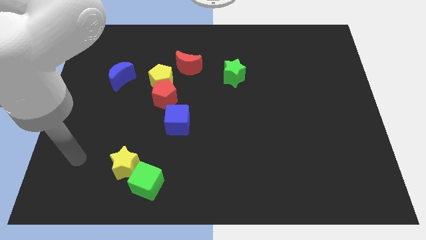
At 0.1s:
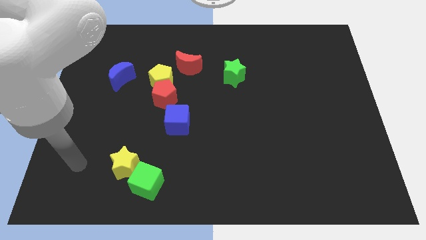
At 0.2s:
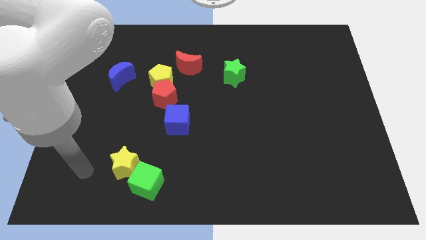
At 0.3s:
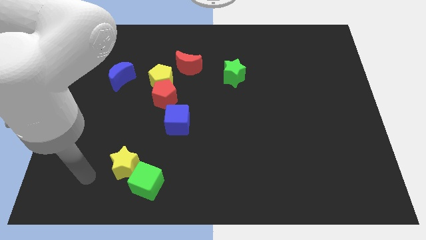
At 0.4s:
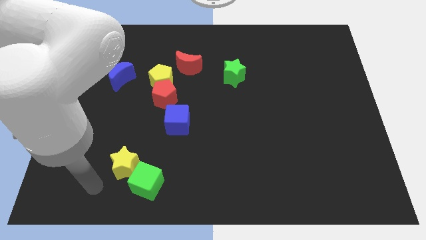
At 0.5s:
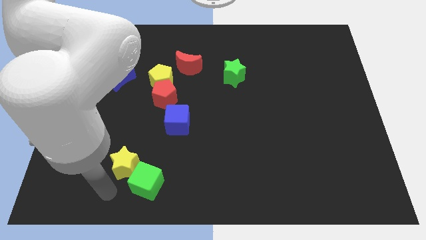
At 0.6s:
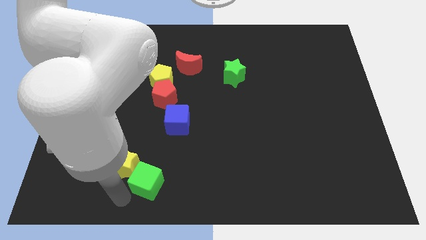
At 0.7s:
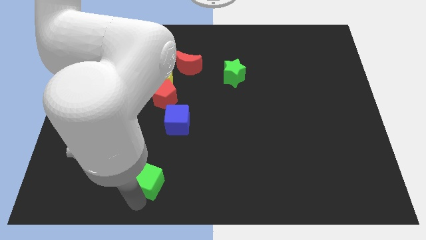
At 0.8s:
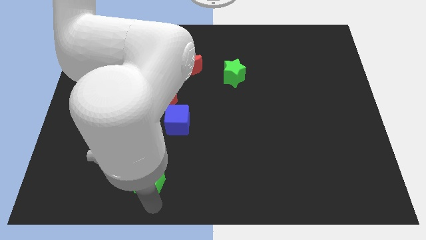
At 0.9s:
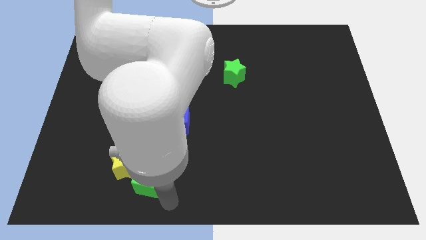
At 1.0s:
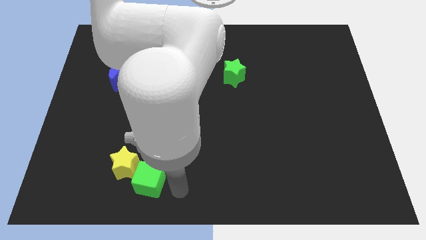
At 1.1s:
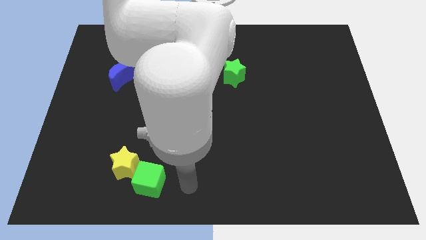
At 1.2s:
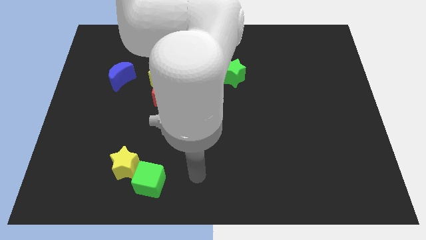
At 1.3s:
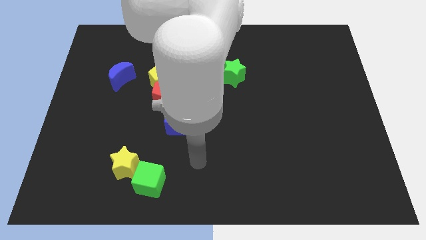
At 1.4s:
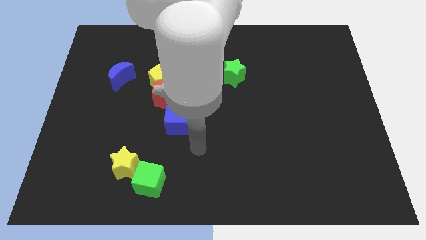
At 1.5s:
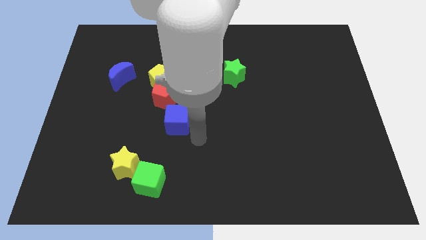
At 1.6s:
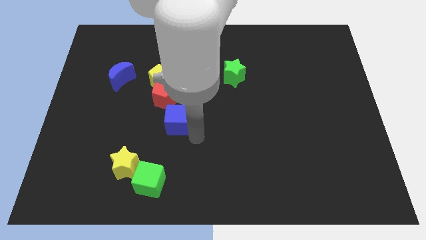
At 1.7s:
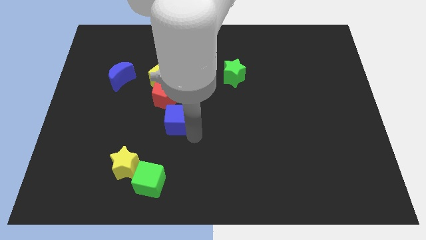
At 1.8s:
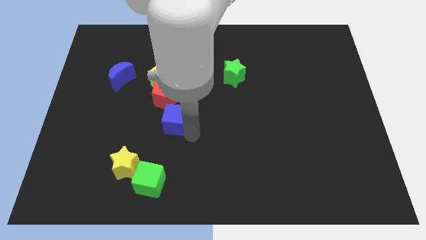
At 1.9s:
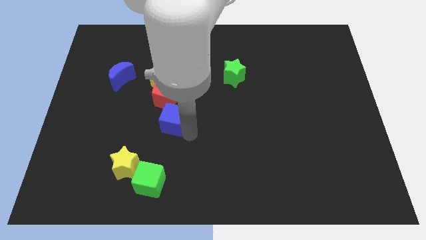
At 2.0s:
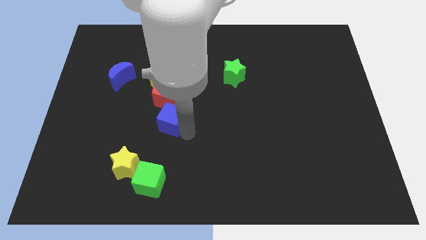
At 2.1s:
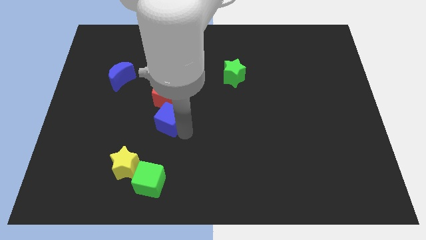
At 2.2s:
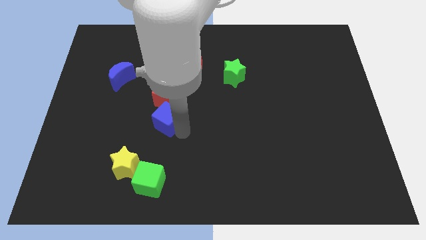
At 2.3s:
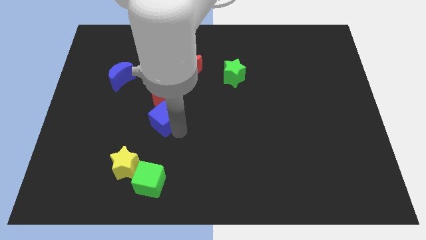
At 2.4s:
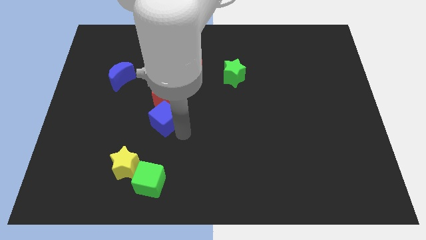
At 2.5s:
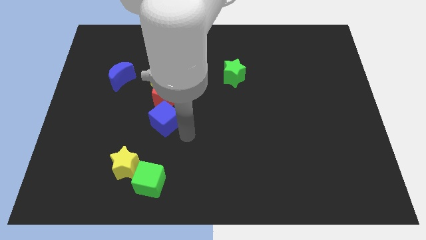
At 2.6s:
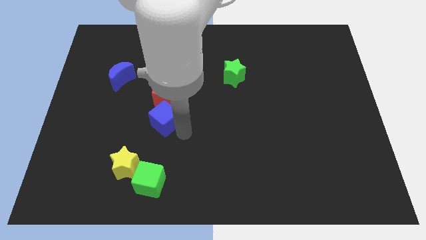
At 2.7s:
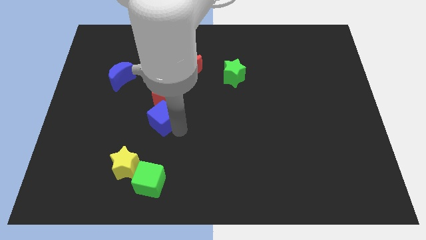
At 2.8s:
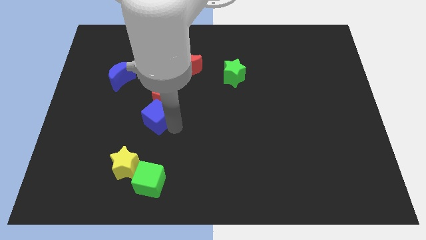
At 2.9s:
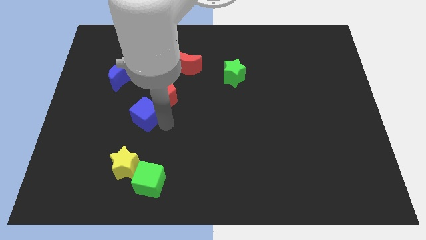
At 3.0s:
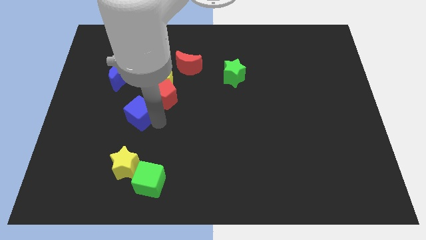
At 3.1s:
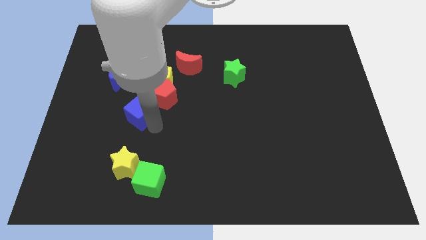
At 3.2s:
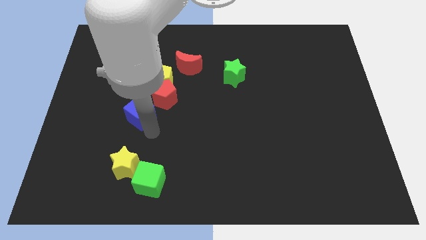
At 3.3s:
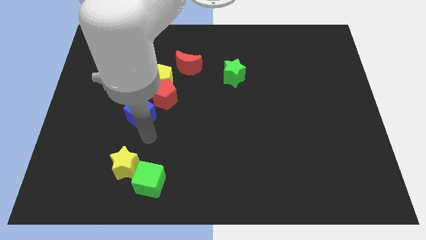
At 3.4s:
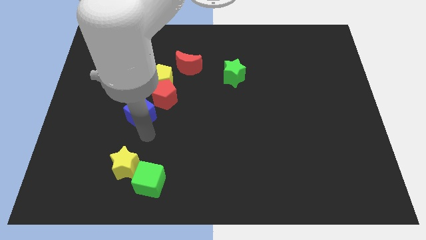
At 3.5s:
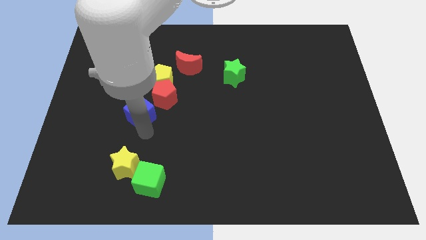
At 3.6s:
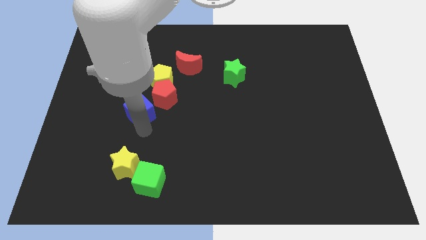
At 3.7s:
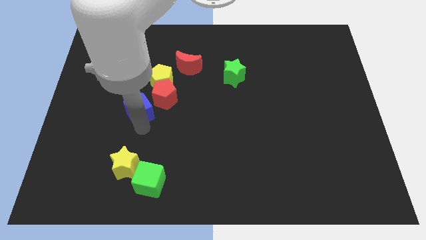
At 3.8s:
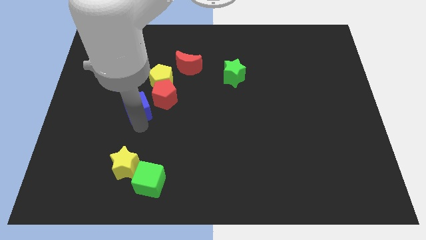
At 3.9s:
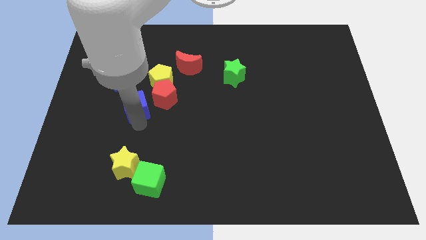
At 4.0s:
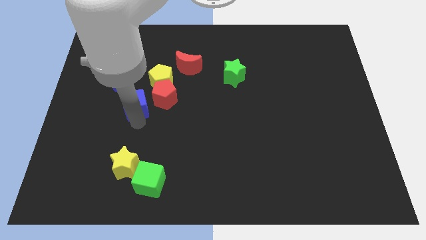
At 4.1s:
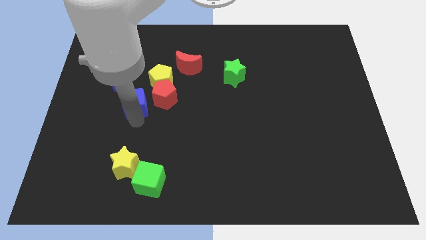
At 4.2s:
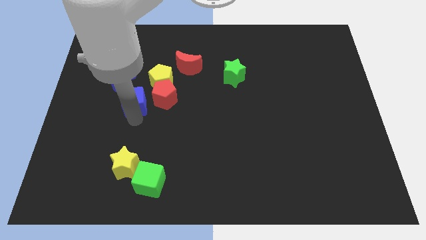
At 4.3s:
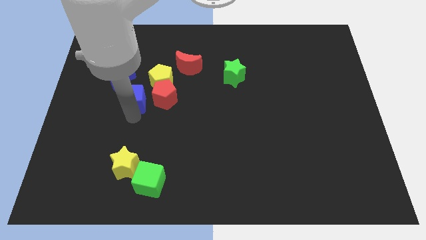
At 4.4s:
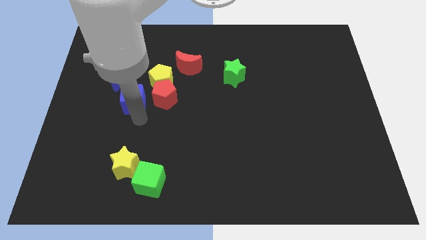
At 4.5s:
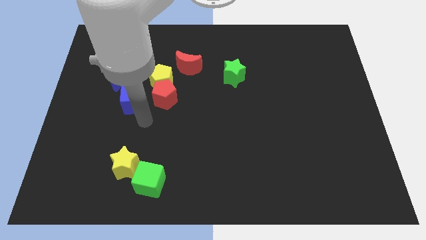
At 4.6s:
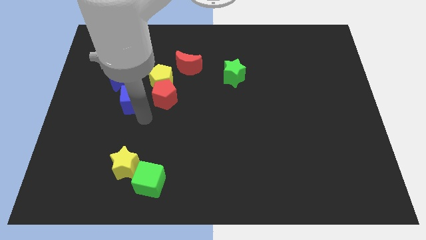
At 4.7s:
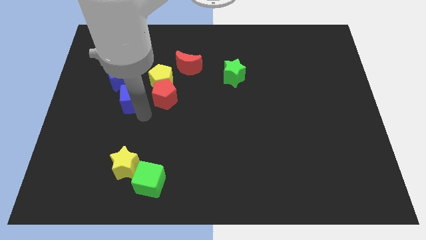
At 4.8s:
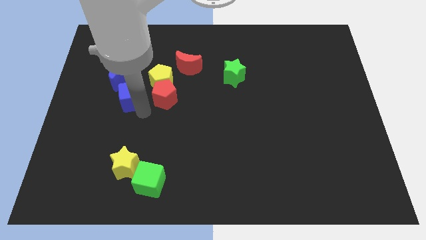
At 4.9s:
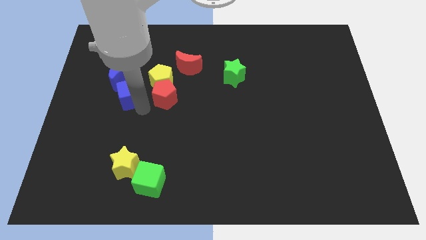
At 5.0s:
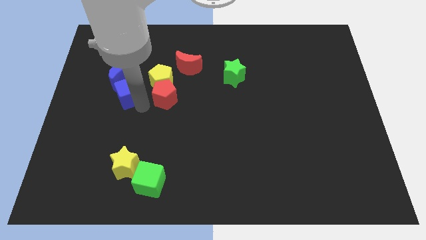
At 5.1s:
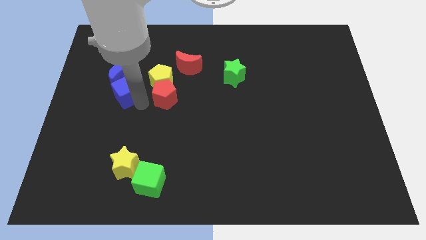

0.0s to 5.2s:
move the blue cube close to the blue moon

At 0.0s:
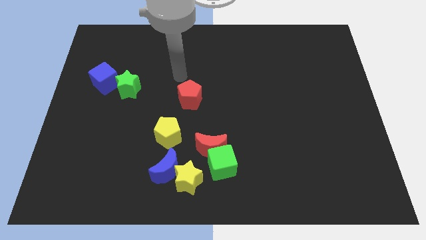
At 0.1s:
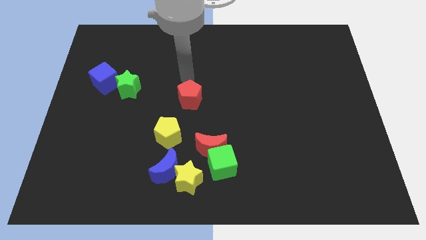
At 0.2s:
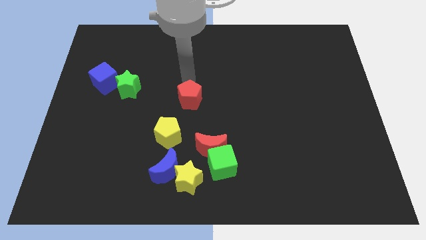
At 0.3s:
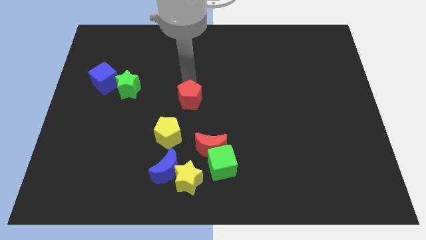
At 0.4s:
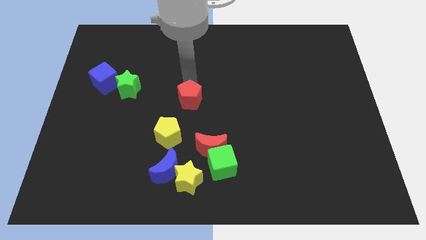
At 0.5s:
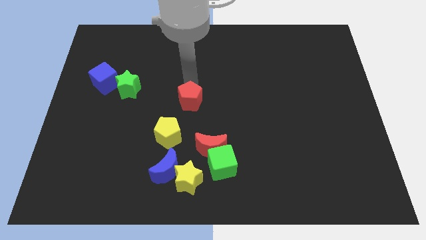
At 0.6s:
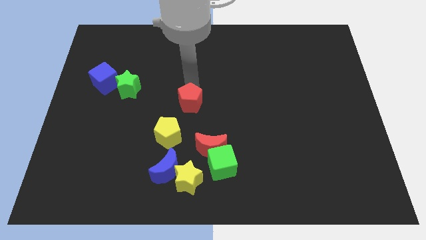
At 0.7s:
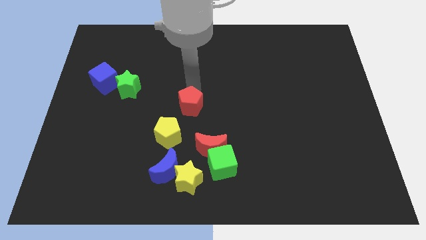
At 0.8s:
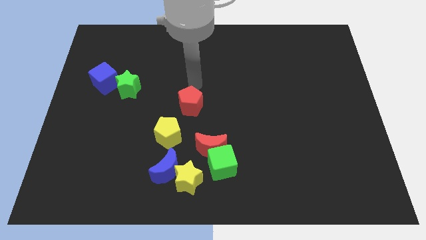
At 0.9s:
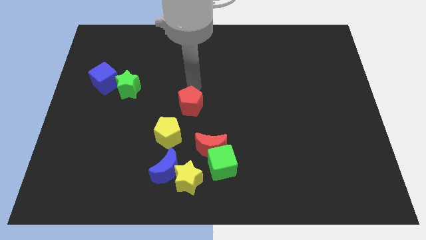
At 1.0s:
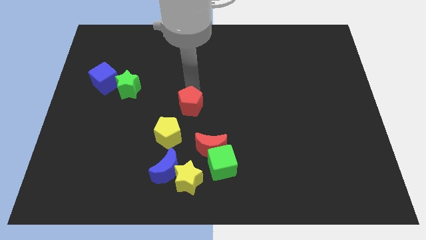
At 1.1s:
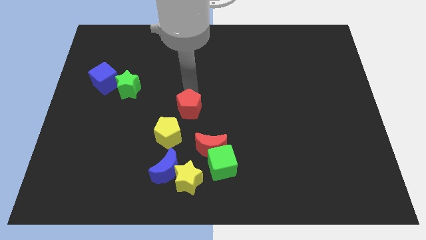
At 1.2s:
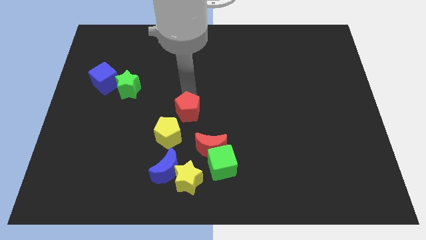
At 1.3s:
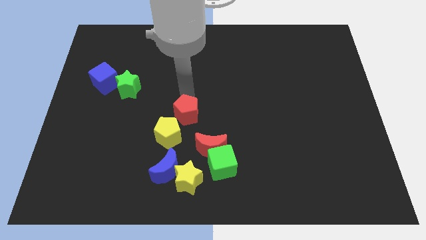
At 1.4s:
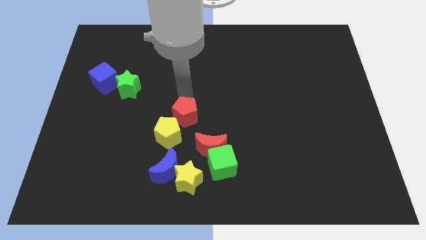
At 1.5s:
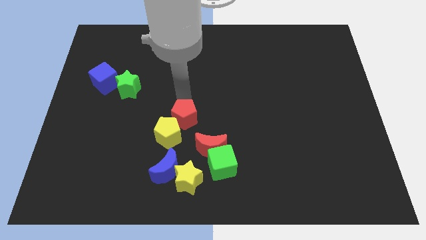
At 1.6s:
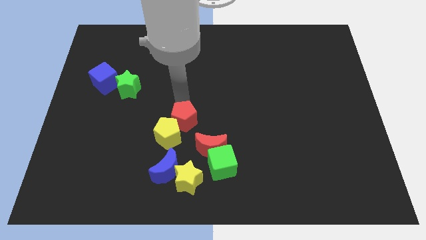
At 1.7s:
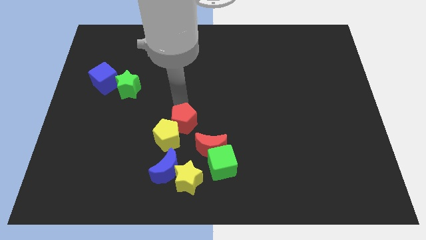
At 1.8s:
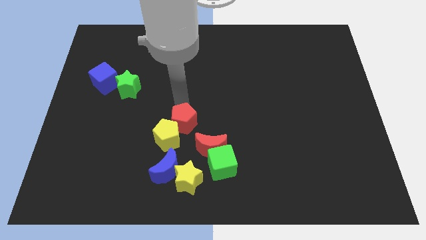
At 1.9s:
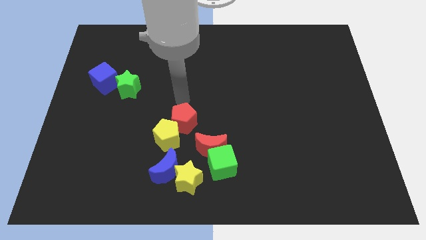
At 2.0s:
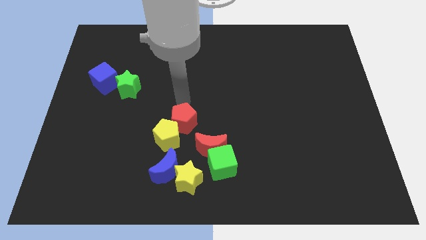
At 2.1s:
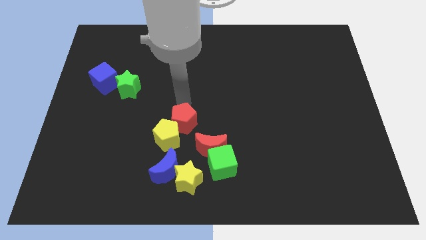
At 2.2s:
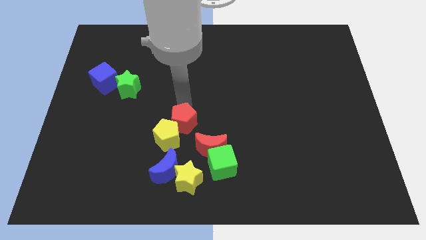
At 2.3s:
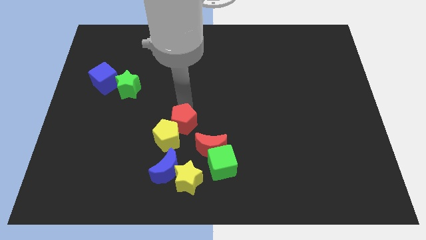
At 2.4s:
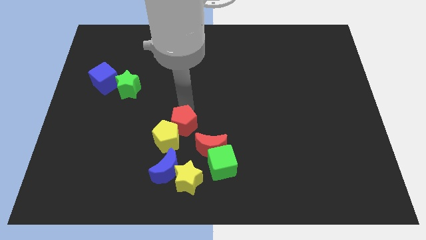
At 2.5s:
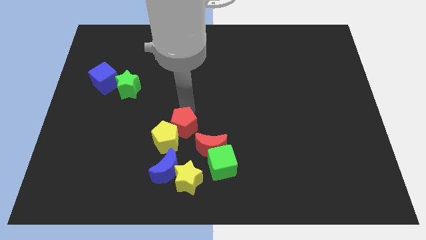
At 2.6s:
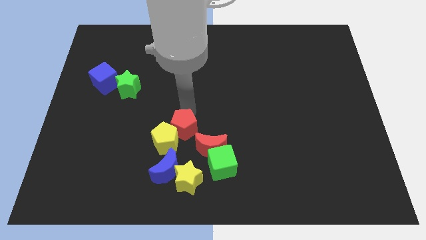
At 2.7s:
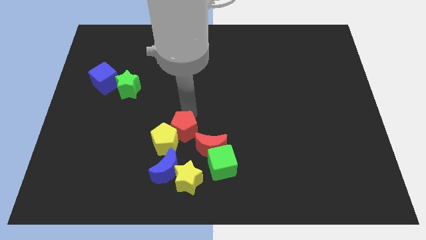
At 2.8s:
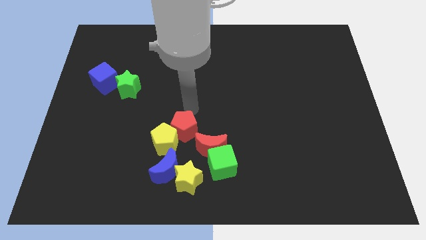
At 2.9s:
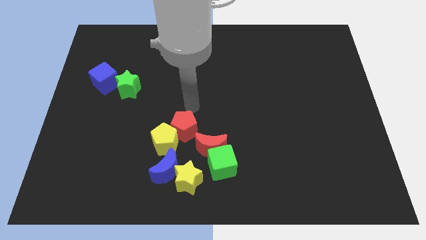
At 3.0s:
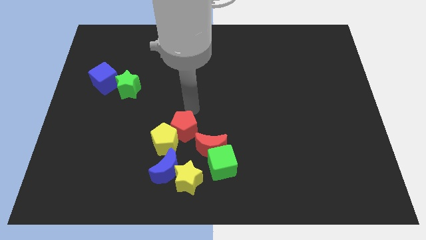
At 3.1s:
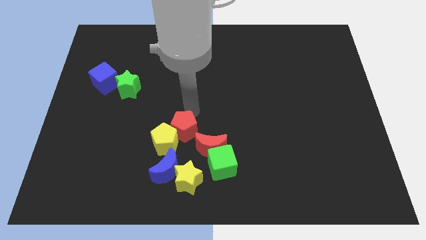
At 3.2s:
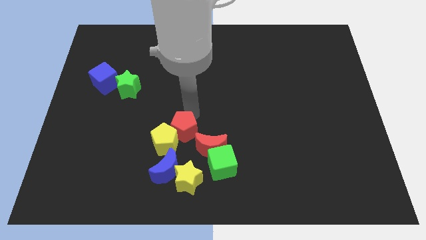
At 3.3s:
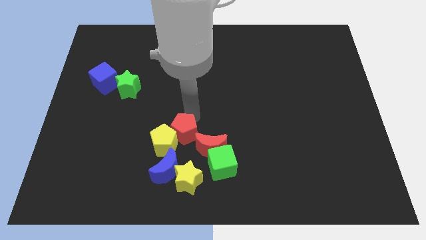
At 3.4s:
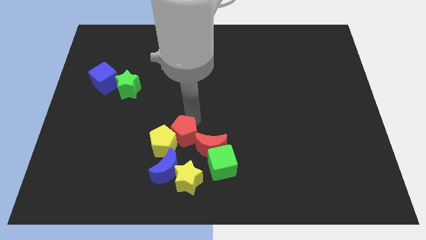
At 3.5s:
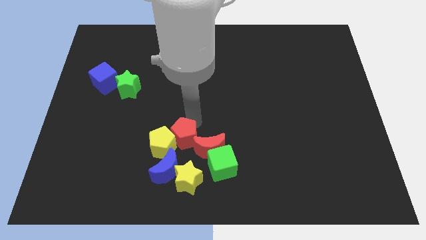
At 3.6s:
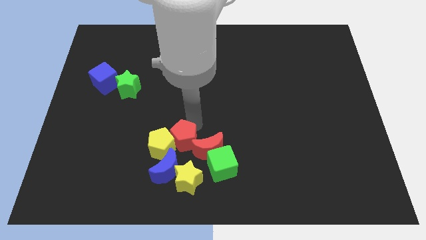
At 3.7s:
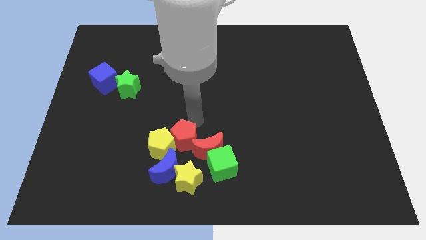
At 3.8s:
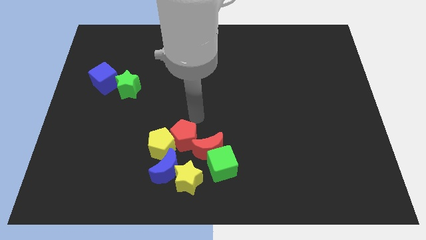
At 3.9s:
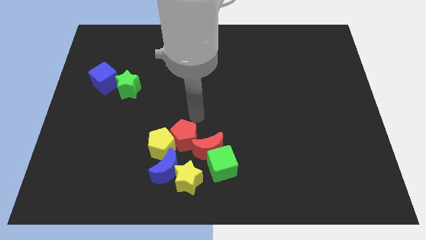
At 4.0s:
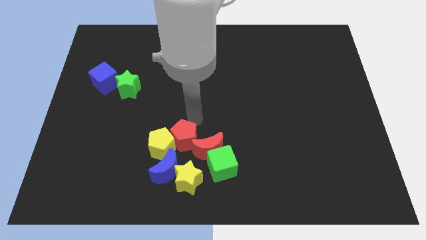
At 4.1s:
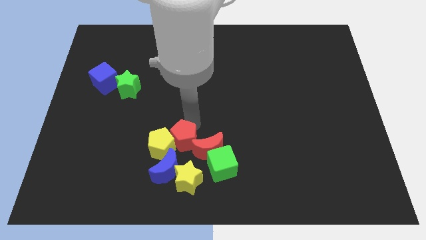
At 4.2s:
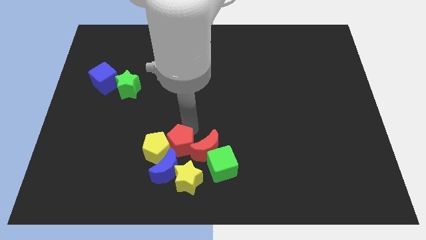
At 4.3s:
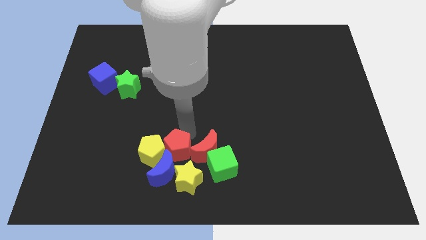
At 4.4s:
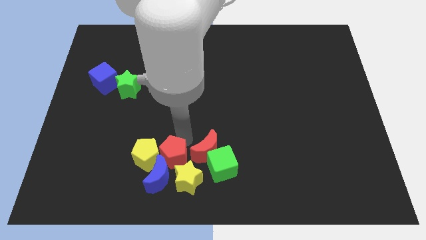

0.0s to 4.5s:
push the red pentagon close to the blue moon
